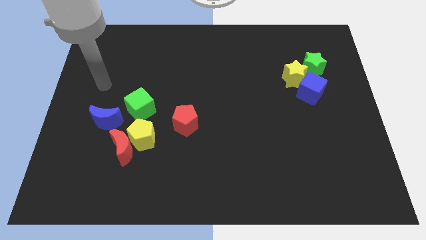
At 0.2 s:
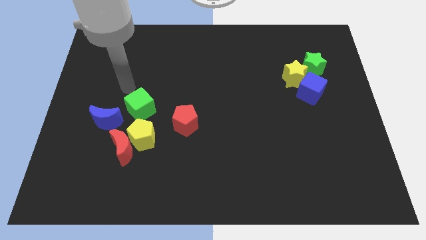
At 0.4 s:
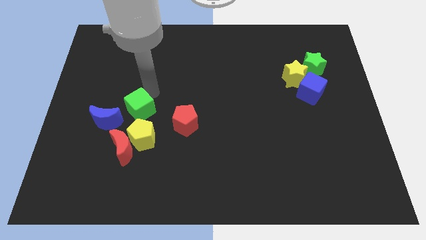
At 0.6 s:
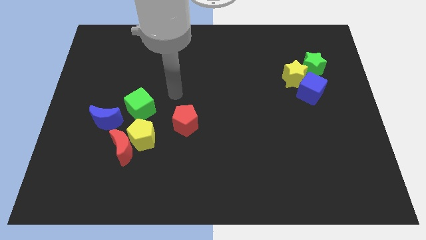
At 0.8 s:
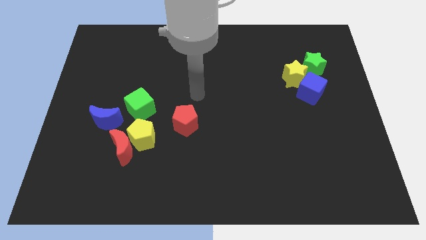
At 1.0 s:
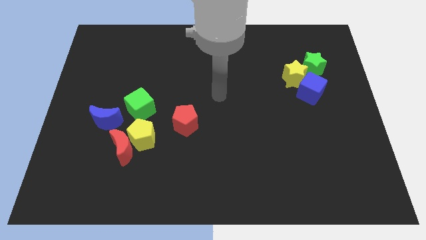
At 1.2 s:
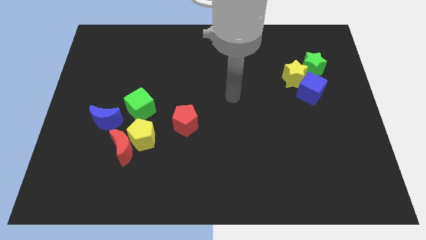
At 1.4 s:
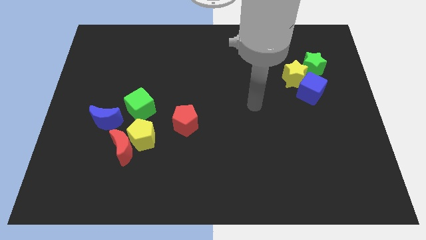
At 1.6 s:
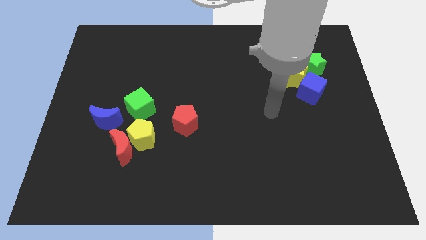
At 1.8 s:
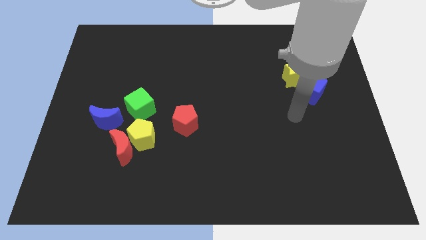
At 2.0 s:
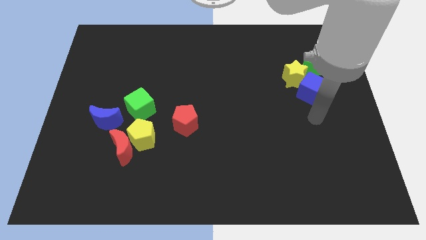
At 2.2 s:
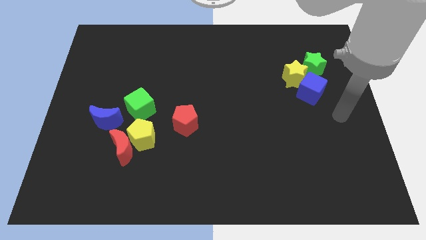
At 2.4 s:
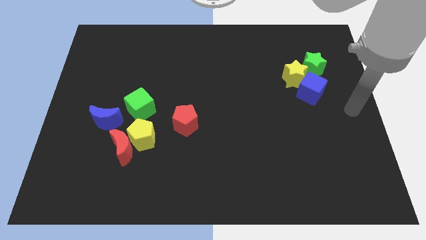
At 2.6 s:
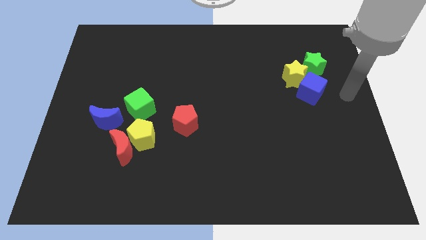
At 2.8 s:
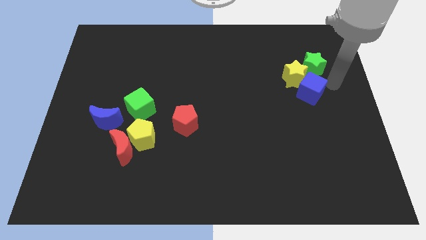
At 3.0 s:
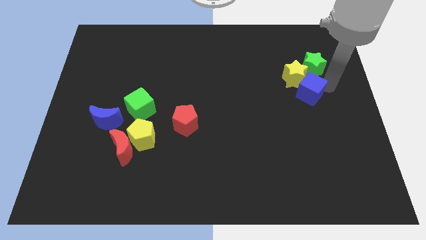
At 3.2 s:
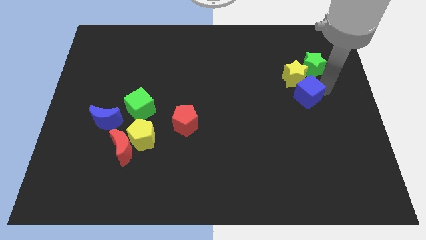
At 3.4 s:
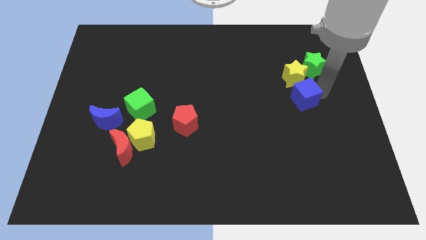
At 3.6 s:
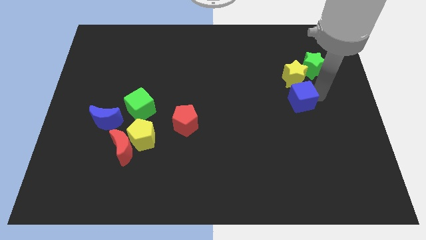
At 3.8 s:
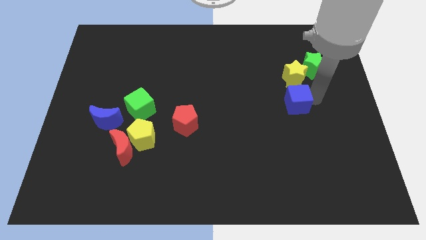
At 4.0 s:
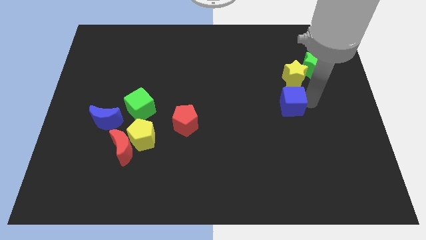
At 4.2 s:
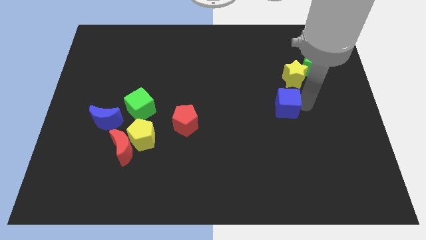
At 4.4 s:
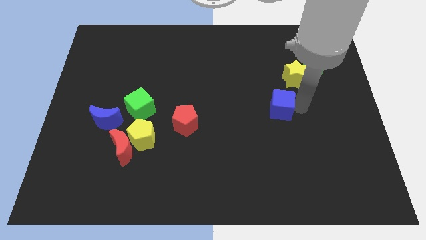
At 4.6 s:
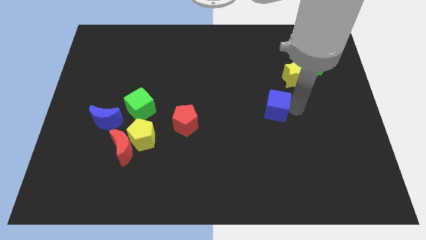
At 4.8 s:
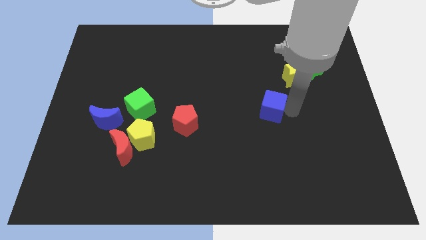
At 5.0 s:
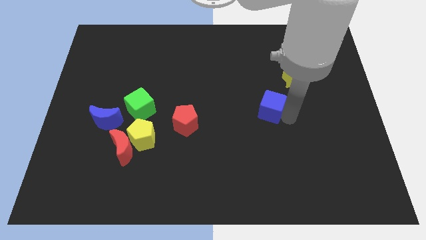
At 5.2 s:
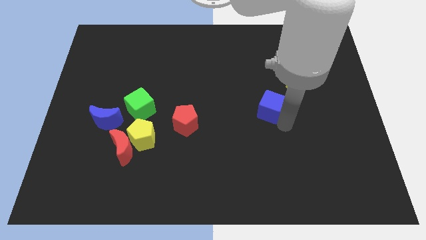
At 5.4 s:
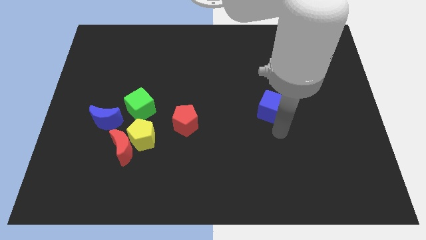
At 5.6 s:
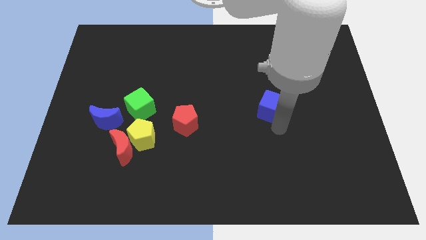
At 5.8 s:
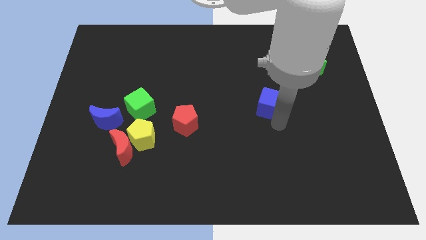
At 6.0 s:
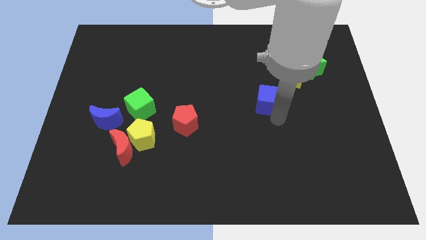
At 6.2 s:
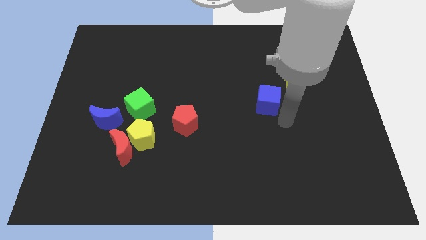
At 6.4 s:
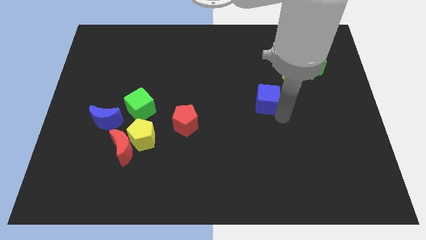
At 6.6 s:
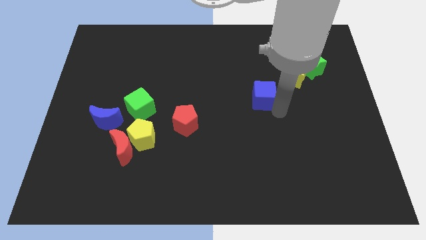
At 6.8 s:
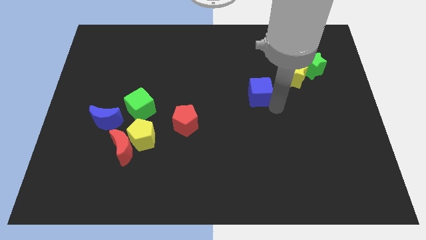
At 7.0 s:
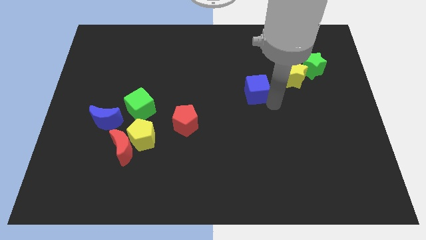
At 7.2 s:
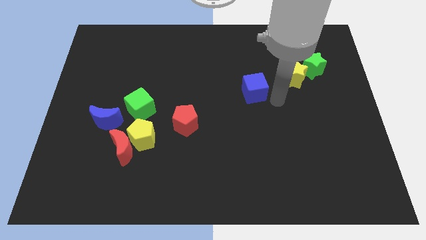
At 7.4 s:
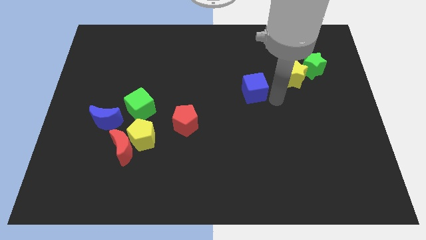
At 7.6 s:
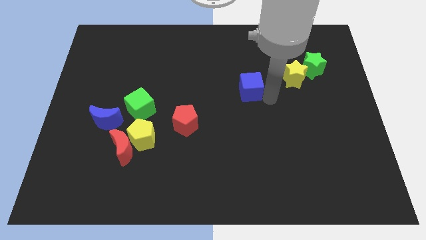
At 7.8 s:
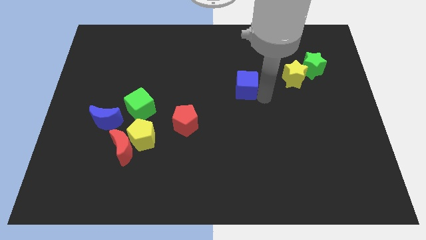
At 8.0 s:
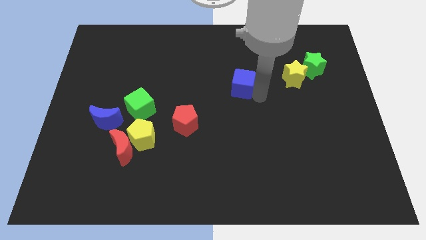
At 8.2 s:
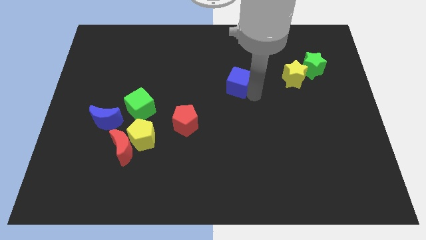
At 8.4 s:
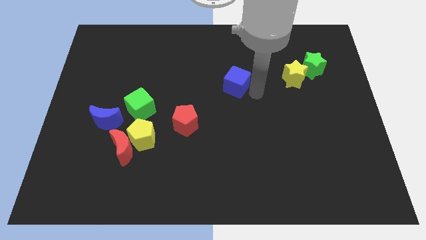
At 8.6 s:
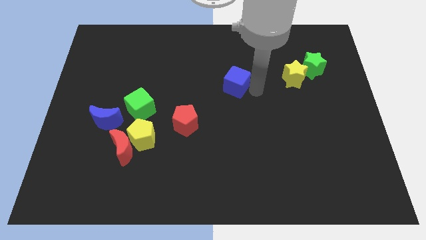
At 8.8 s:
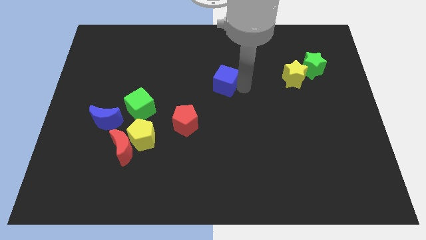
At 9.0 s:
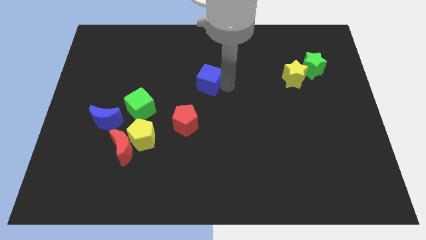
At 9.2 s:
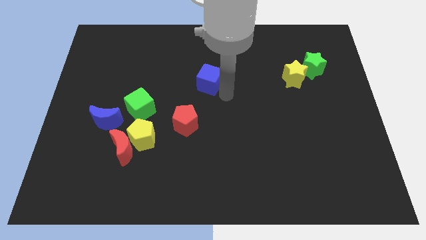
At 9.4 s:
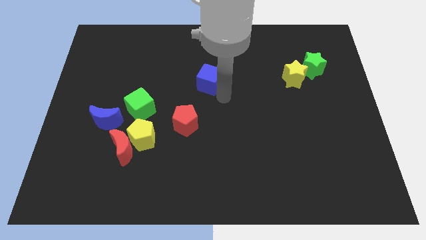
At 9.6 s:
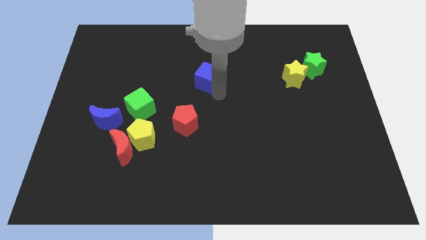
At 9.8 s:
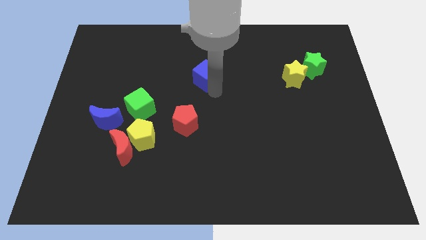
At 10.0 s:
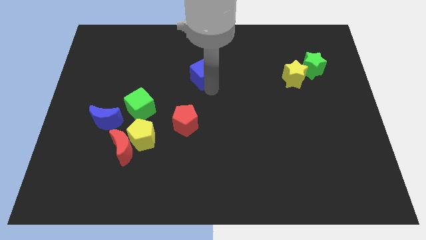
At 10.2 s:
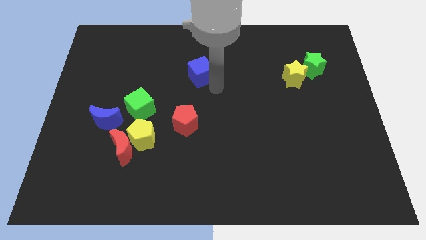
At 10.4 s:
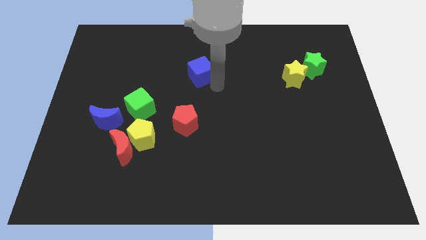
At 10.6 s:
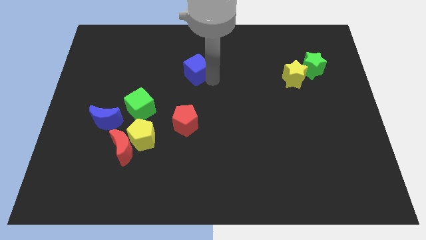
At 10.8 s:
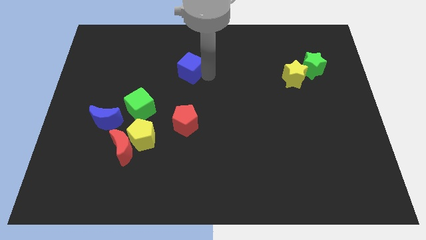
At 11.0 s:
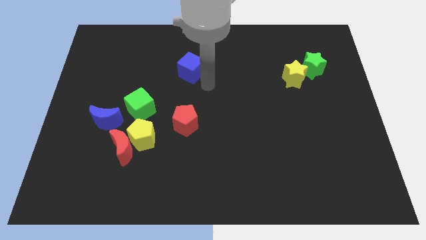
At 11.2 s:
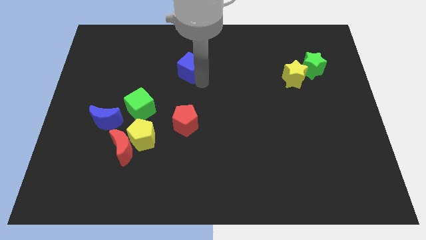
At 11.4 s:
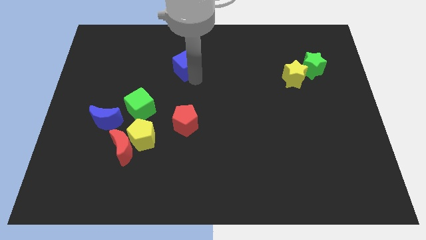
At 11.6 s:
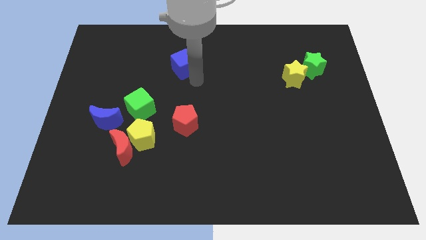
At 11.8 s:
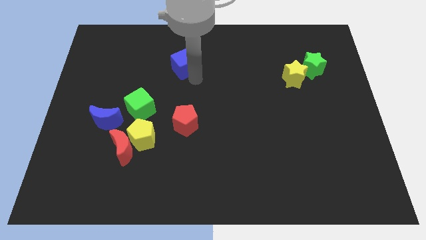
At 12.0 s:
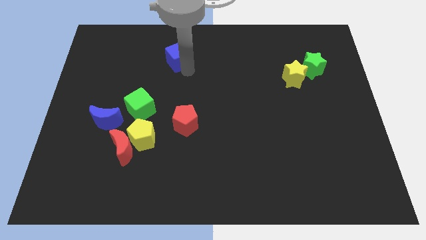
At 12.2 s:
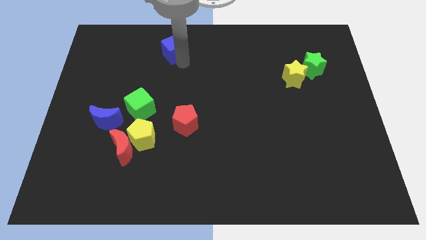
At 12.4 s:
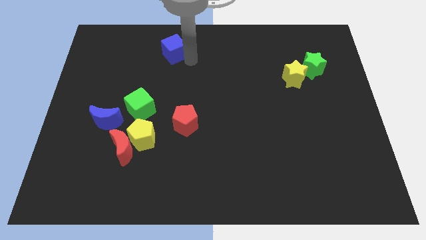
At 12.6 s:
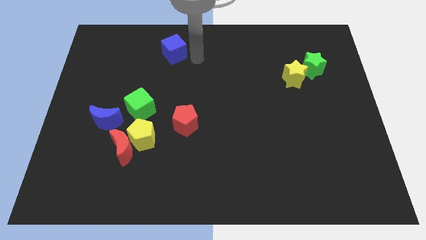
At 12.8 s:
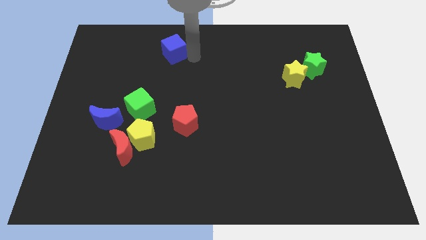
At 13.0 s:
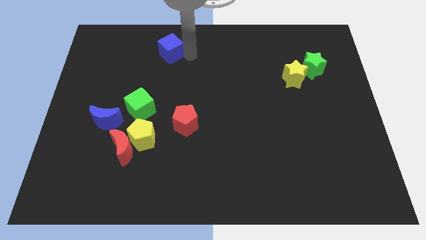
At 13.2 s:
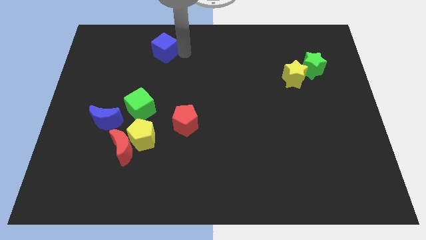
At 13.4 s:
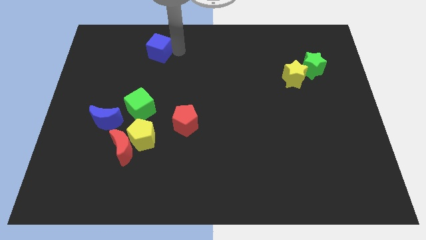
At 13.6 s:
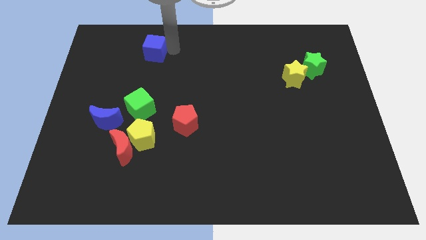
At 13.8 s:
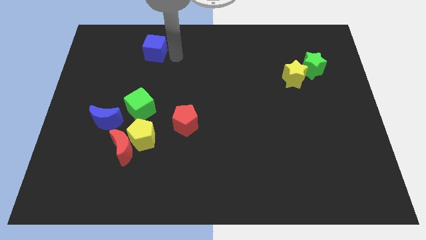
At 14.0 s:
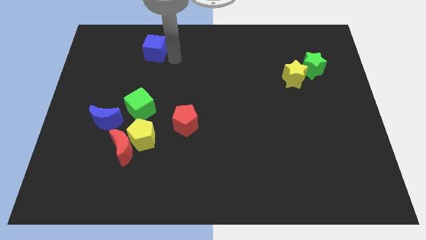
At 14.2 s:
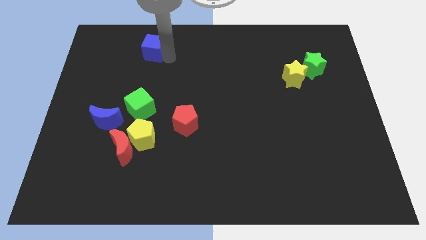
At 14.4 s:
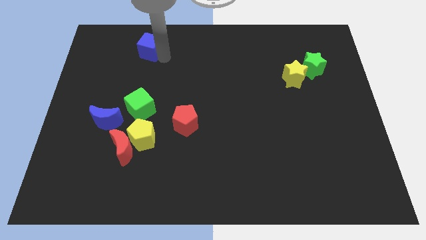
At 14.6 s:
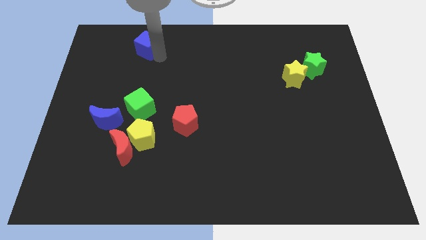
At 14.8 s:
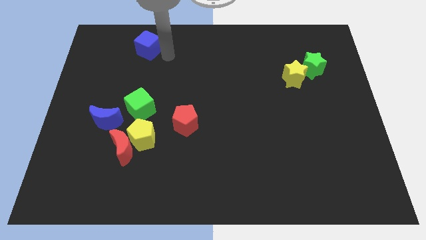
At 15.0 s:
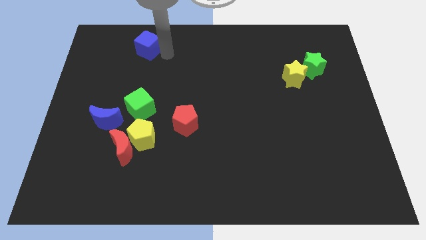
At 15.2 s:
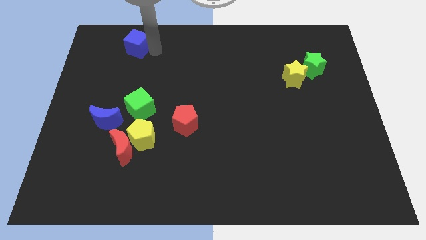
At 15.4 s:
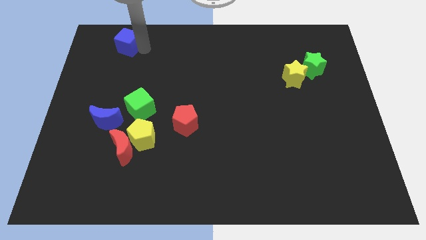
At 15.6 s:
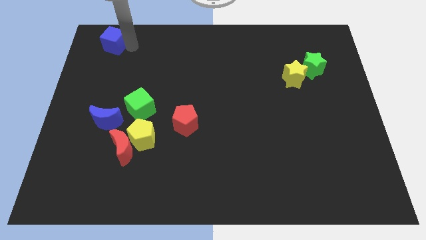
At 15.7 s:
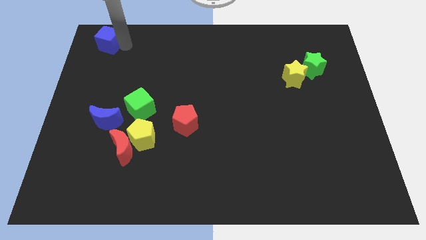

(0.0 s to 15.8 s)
move the blue cube to the top left corner
